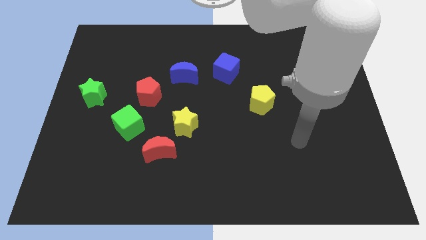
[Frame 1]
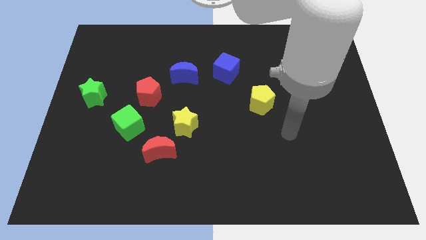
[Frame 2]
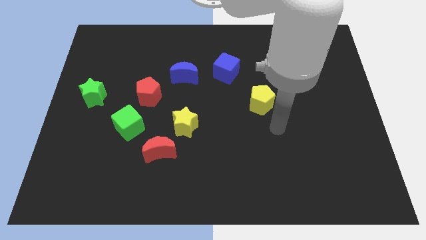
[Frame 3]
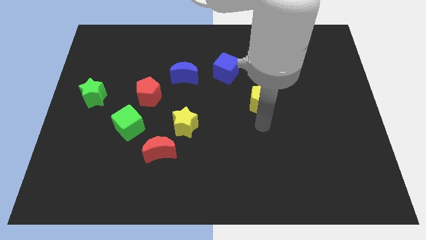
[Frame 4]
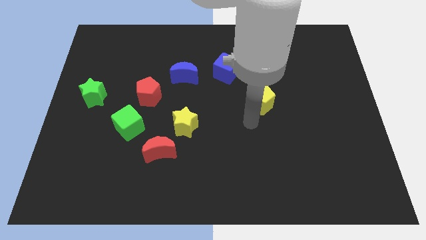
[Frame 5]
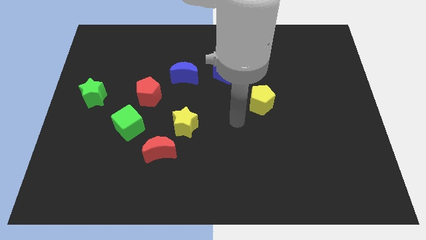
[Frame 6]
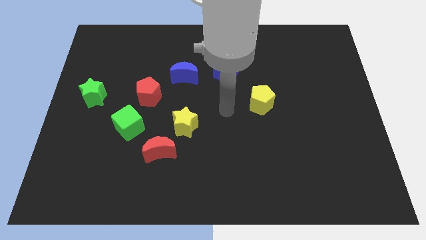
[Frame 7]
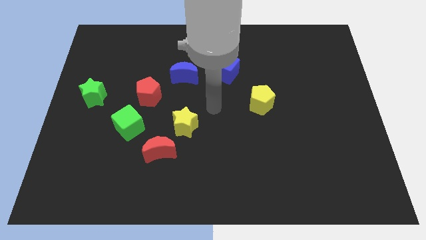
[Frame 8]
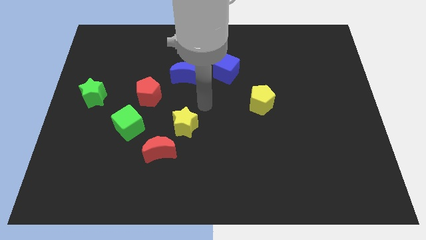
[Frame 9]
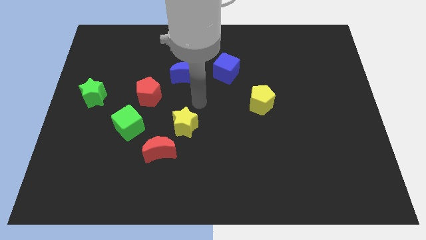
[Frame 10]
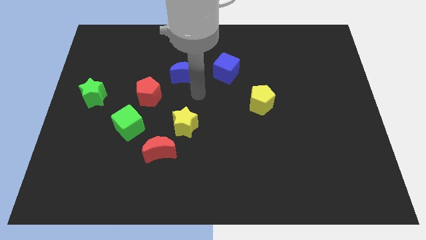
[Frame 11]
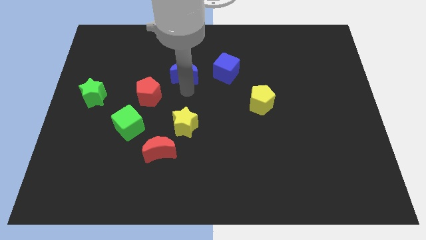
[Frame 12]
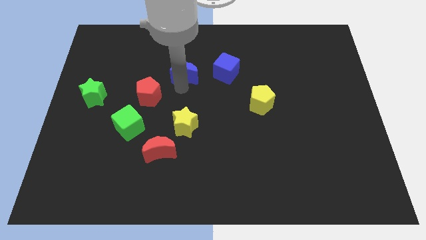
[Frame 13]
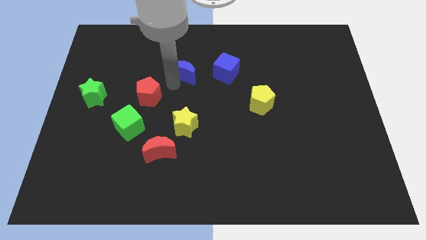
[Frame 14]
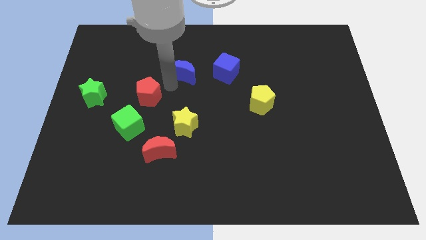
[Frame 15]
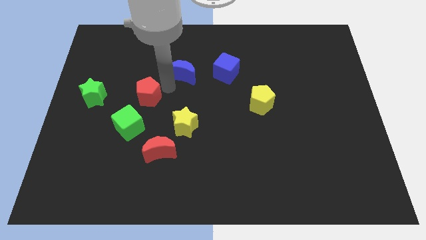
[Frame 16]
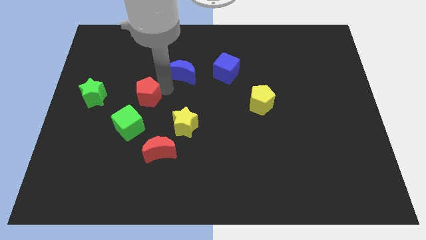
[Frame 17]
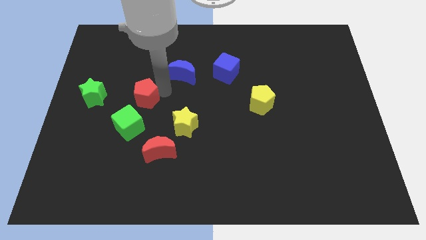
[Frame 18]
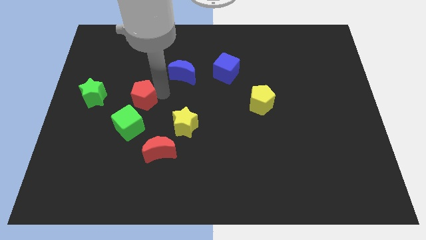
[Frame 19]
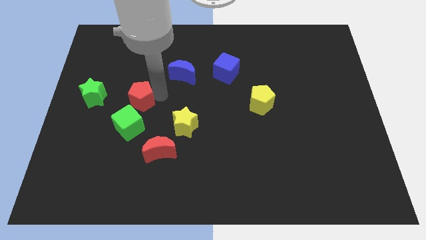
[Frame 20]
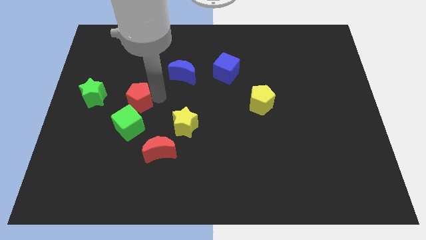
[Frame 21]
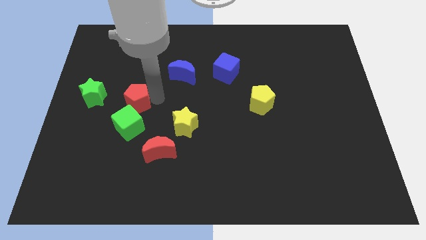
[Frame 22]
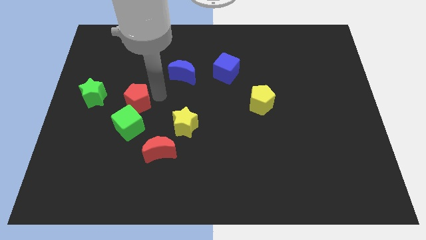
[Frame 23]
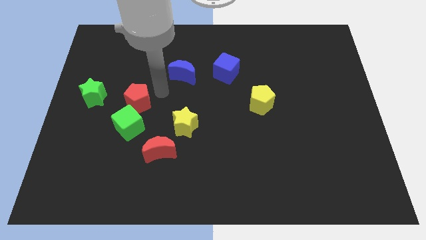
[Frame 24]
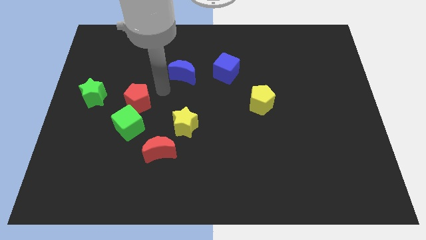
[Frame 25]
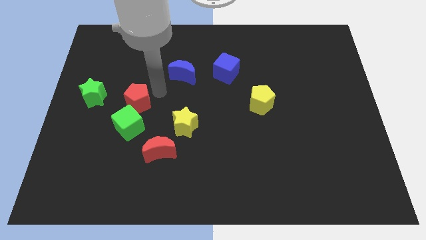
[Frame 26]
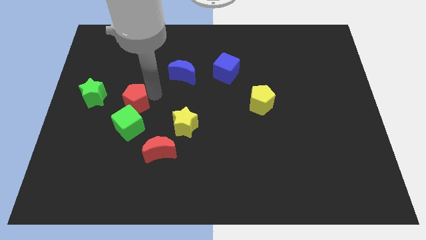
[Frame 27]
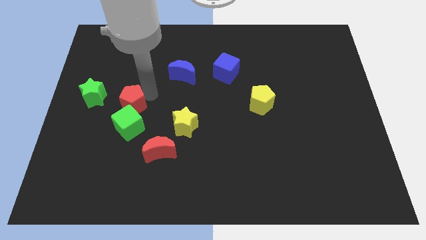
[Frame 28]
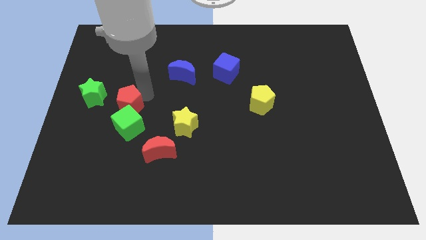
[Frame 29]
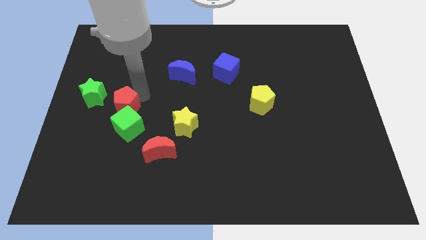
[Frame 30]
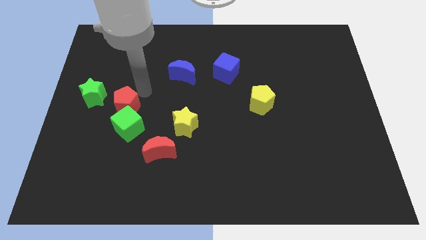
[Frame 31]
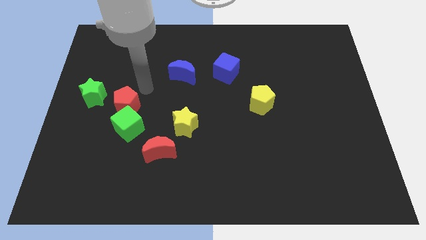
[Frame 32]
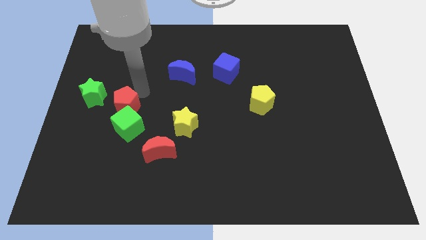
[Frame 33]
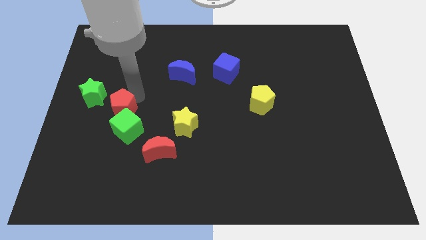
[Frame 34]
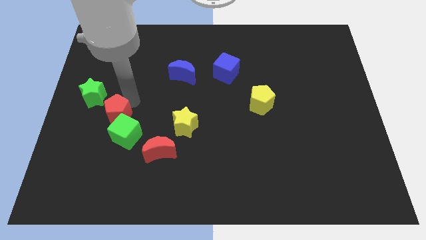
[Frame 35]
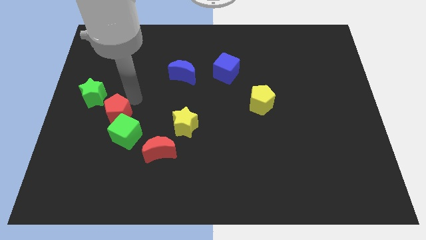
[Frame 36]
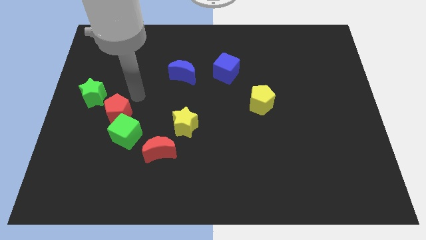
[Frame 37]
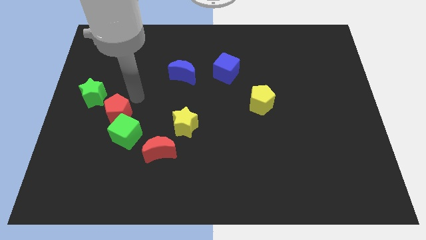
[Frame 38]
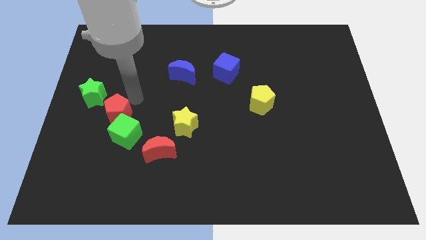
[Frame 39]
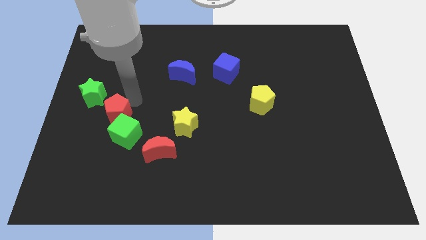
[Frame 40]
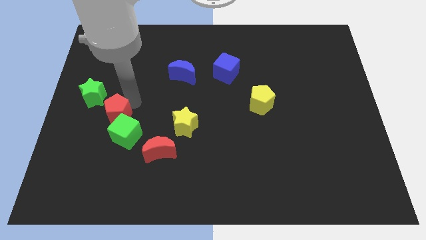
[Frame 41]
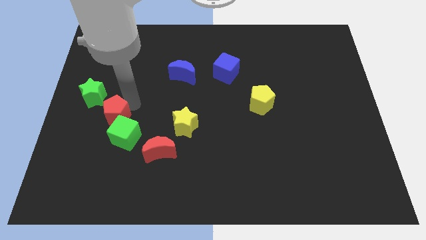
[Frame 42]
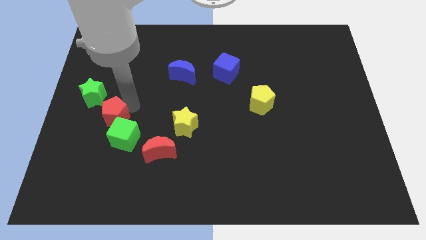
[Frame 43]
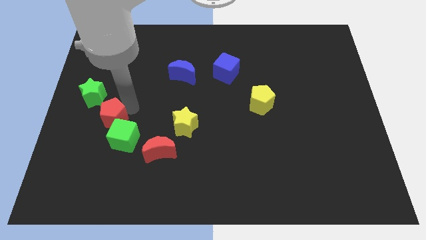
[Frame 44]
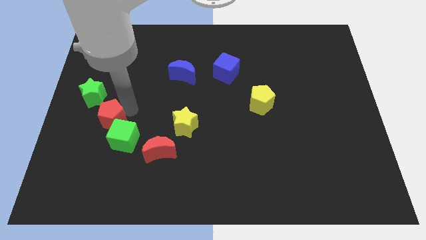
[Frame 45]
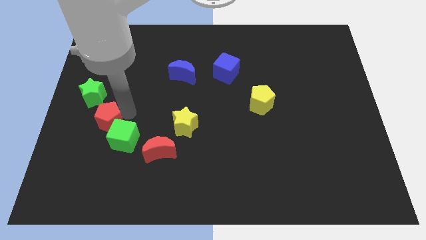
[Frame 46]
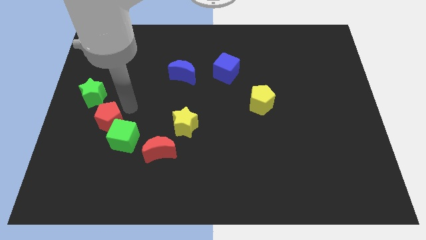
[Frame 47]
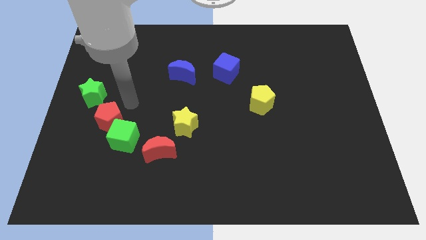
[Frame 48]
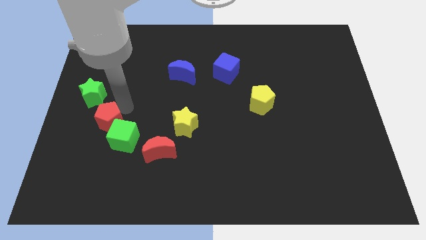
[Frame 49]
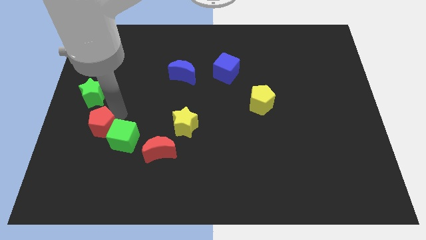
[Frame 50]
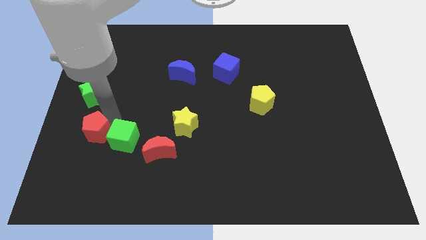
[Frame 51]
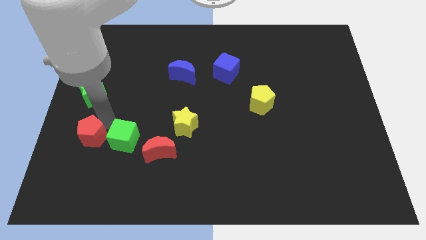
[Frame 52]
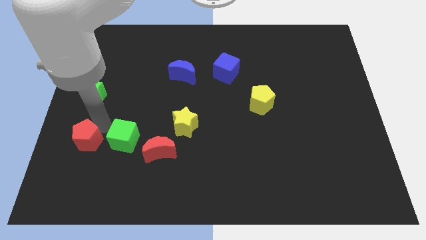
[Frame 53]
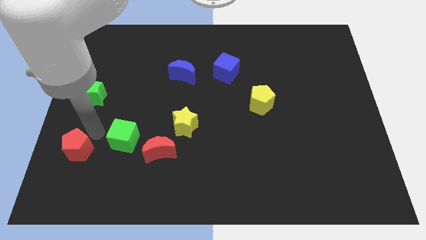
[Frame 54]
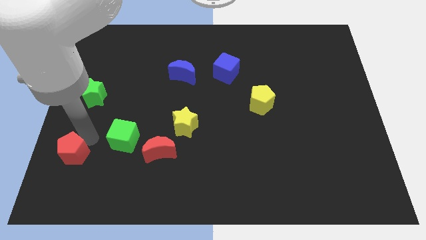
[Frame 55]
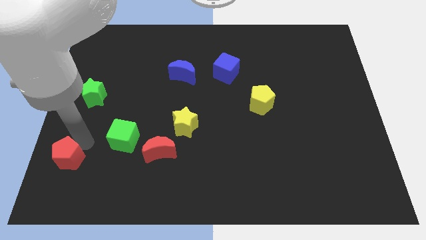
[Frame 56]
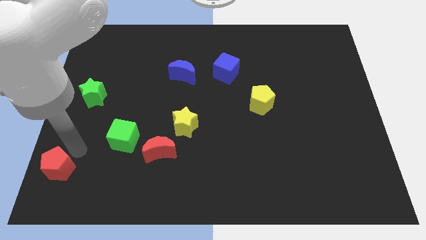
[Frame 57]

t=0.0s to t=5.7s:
push the red pentagon to the bottom left of the board
